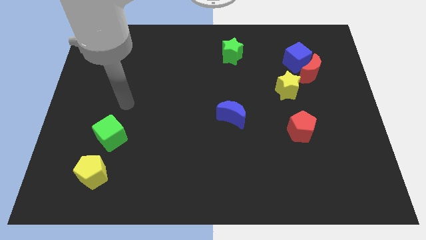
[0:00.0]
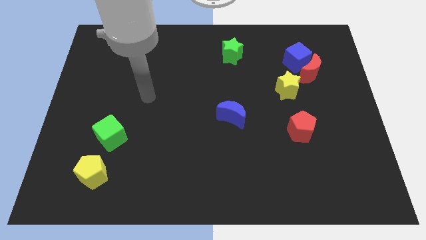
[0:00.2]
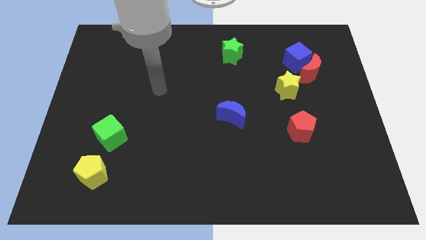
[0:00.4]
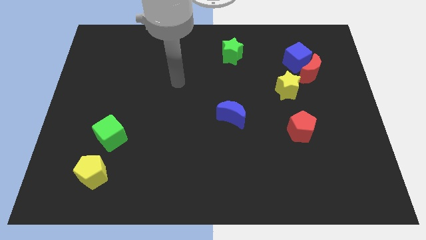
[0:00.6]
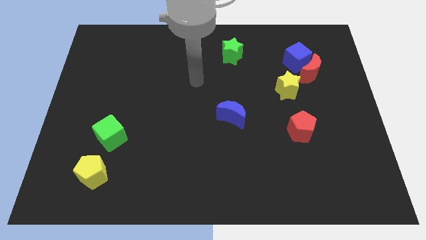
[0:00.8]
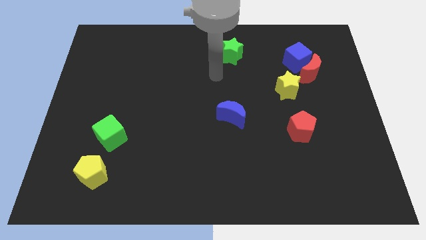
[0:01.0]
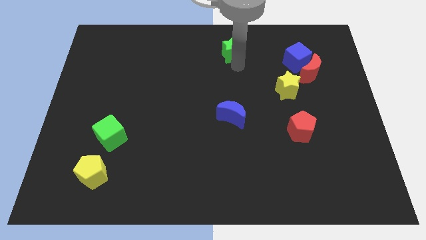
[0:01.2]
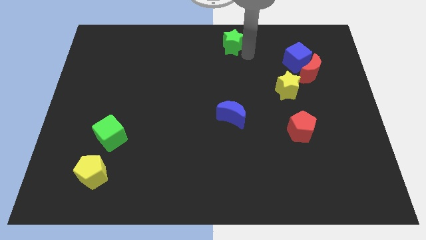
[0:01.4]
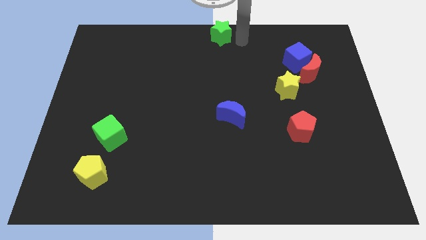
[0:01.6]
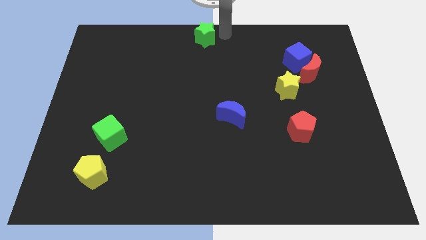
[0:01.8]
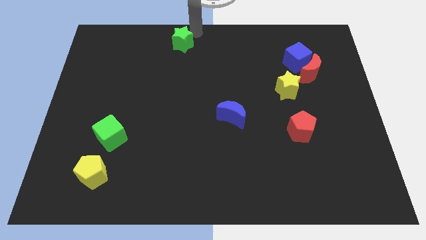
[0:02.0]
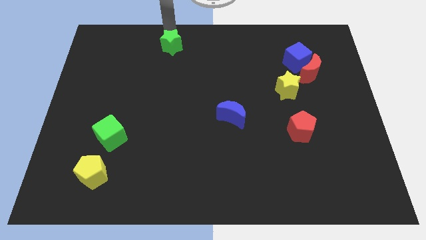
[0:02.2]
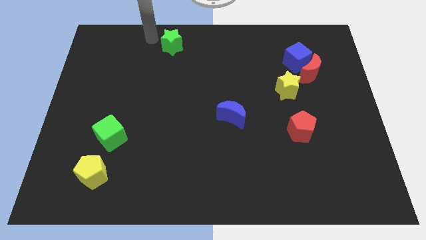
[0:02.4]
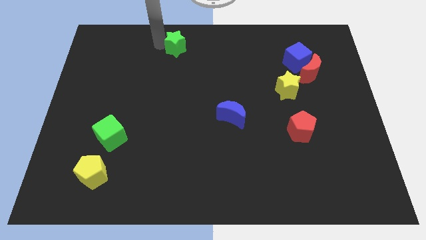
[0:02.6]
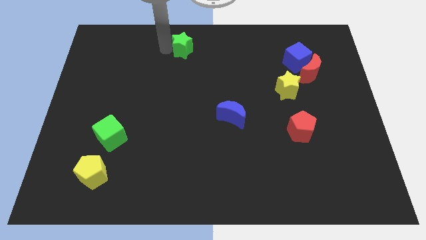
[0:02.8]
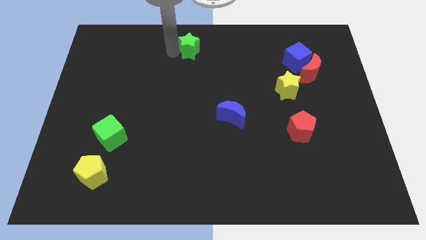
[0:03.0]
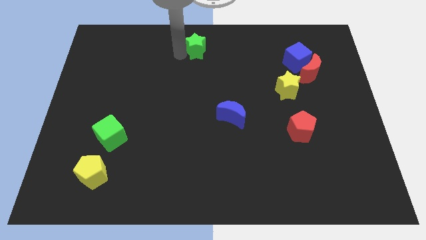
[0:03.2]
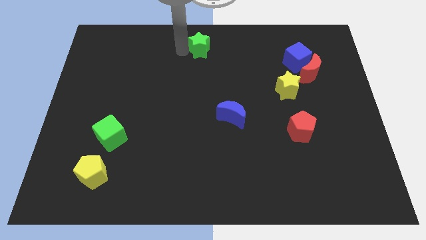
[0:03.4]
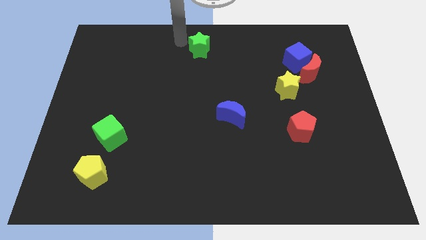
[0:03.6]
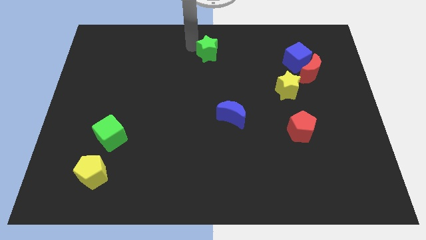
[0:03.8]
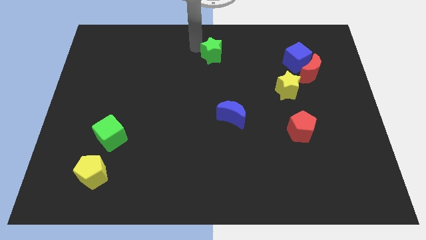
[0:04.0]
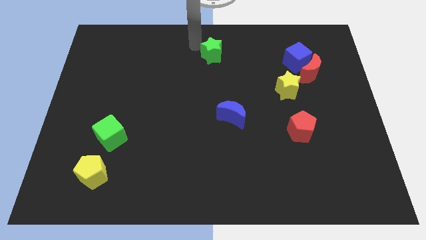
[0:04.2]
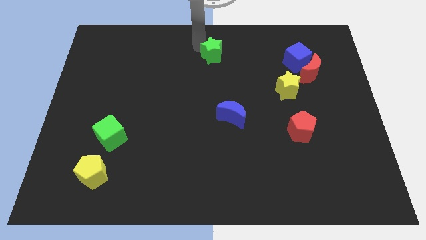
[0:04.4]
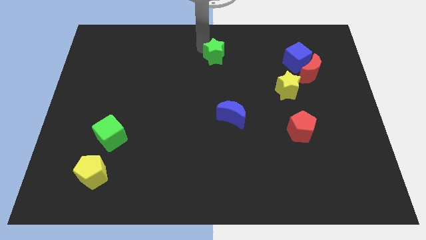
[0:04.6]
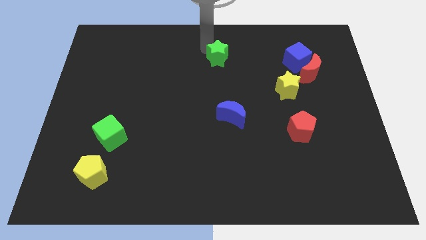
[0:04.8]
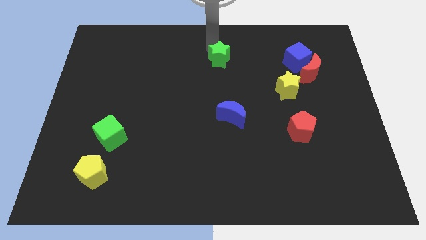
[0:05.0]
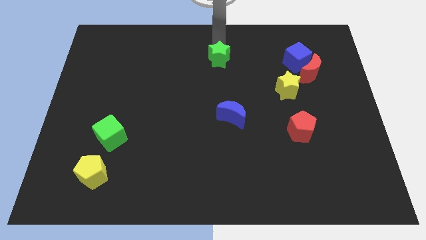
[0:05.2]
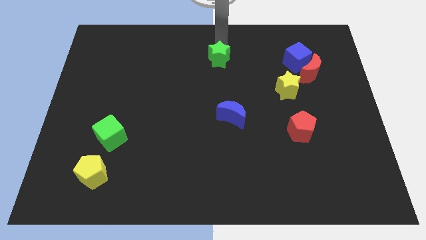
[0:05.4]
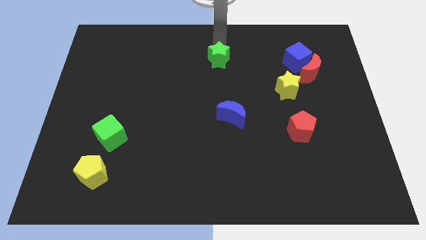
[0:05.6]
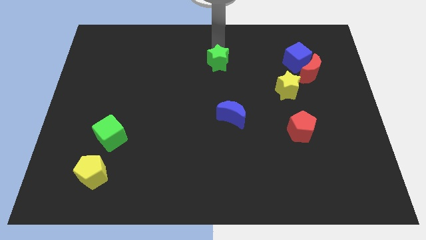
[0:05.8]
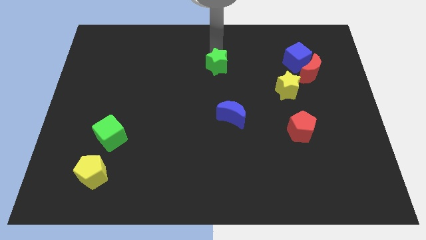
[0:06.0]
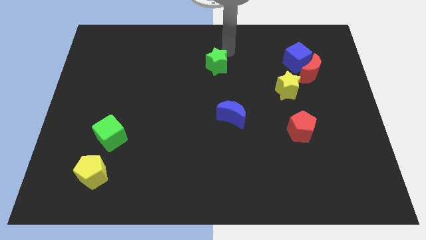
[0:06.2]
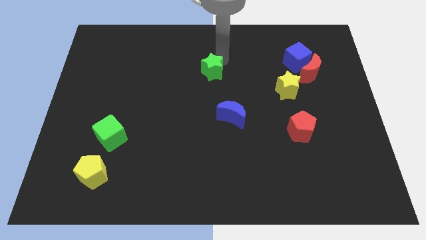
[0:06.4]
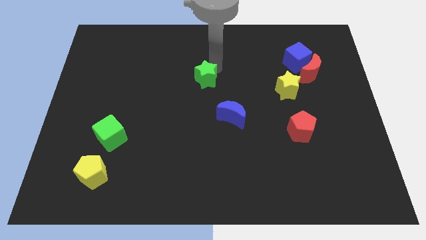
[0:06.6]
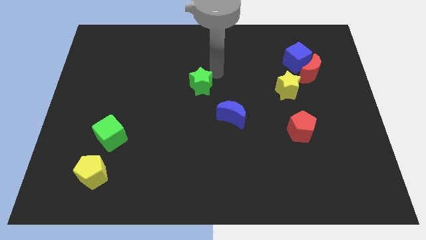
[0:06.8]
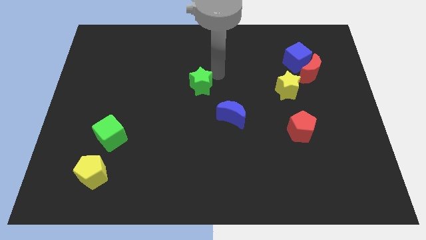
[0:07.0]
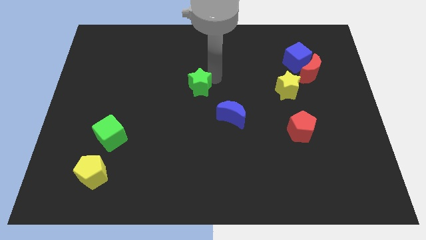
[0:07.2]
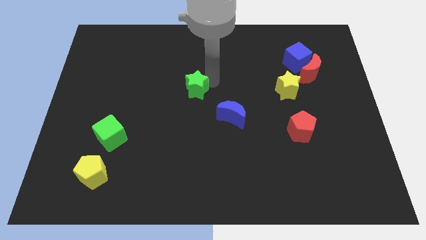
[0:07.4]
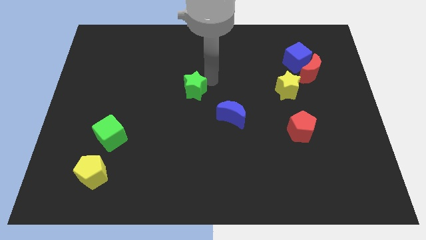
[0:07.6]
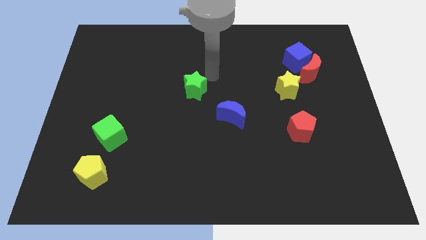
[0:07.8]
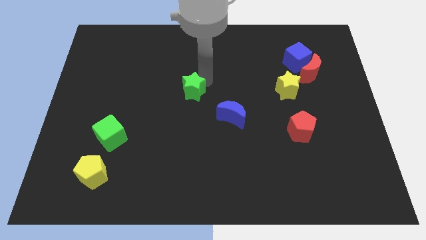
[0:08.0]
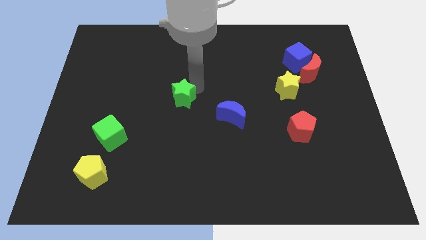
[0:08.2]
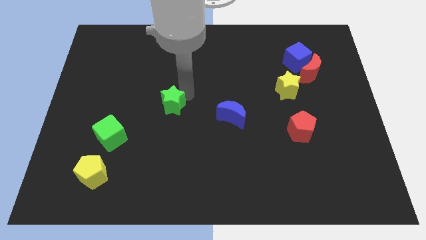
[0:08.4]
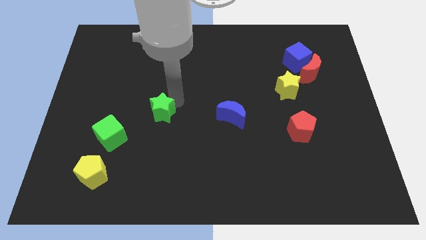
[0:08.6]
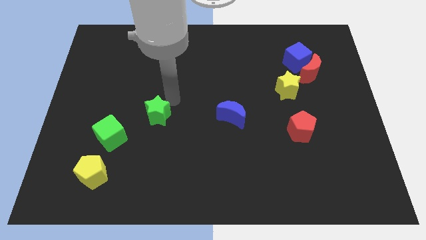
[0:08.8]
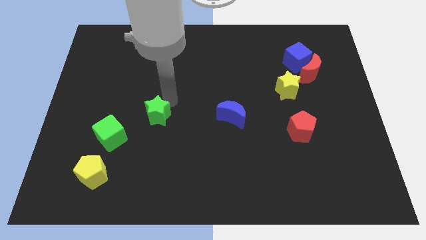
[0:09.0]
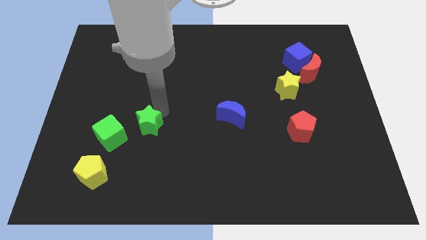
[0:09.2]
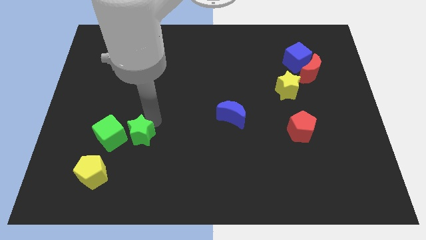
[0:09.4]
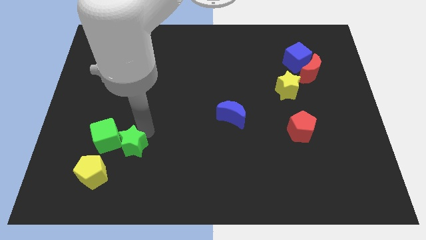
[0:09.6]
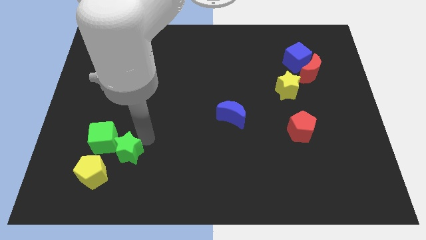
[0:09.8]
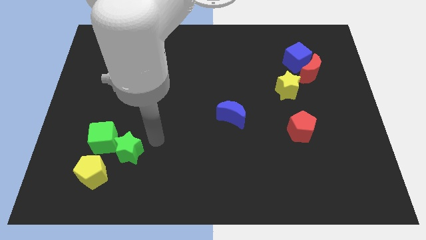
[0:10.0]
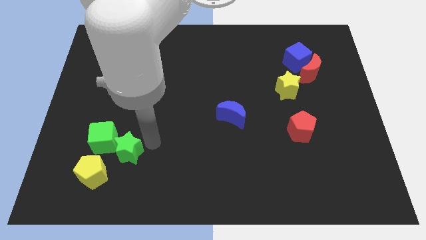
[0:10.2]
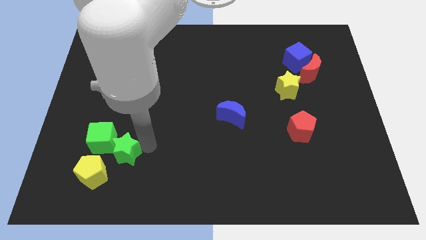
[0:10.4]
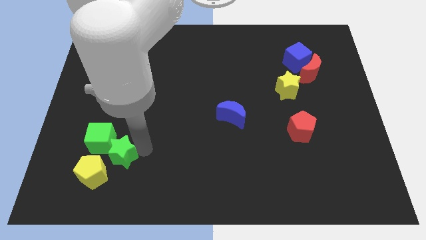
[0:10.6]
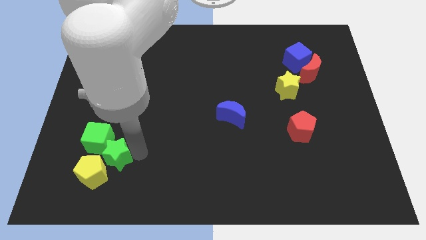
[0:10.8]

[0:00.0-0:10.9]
slide the green star next to the yellow pentagon

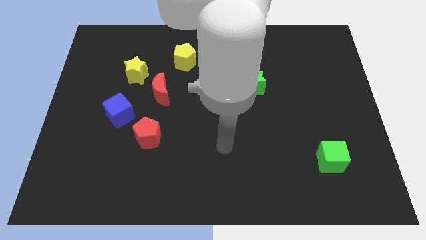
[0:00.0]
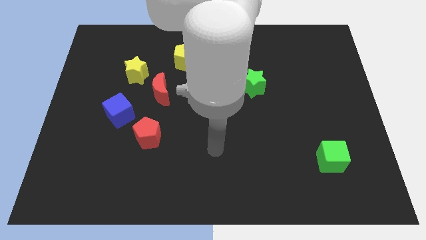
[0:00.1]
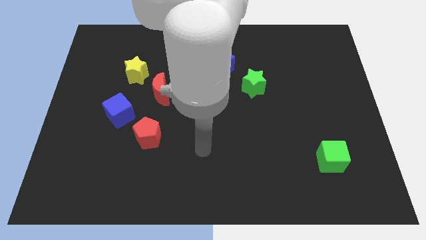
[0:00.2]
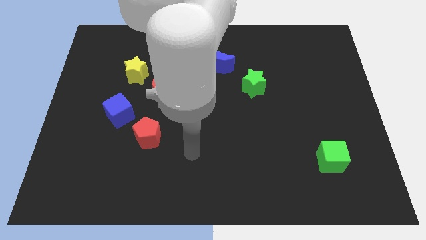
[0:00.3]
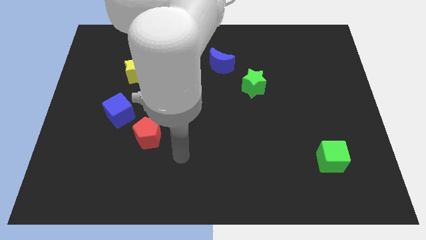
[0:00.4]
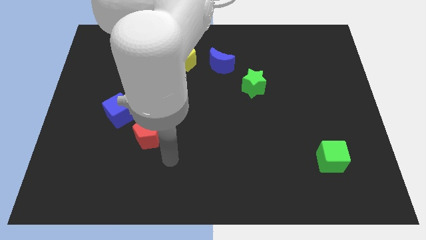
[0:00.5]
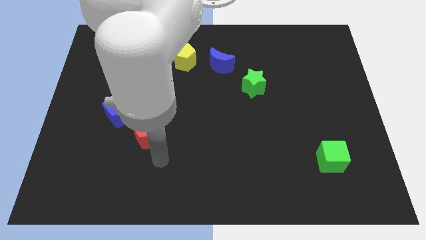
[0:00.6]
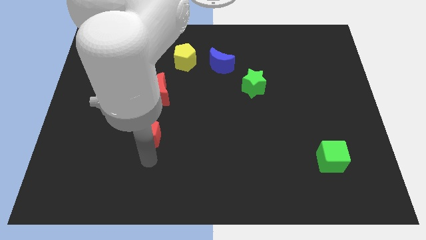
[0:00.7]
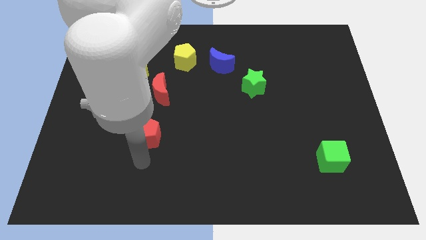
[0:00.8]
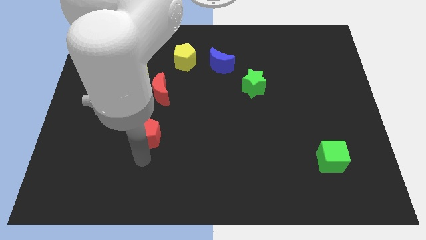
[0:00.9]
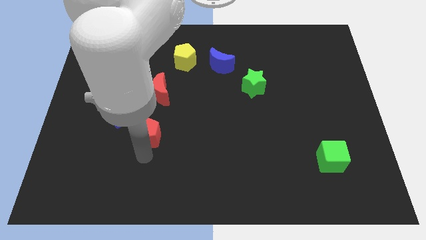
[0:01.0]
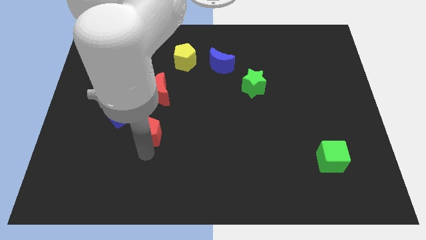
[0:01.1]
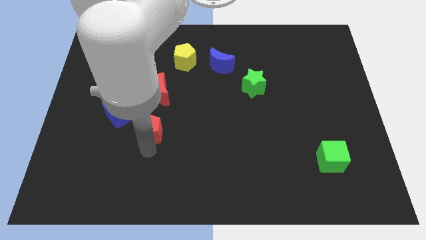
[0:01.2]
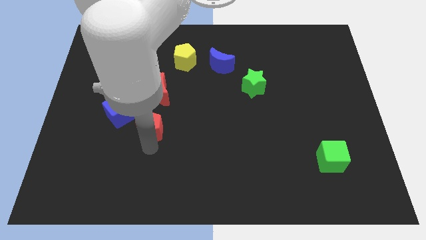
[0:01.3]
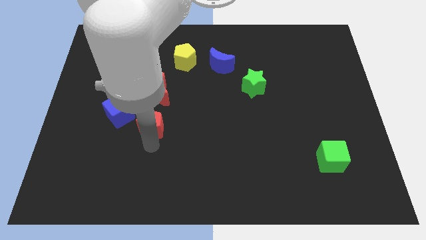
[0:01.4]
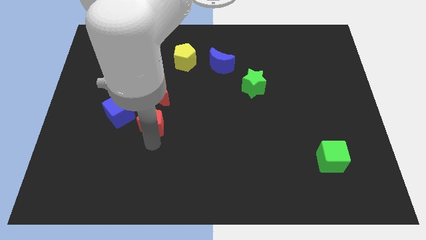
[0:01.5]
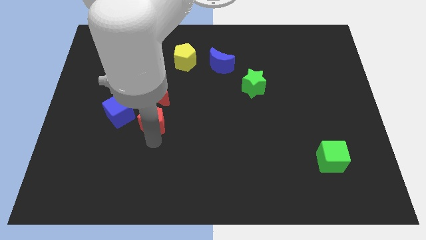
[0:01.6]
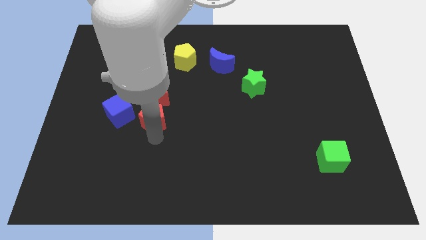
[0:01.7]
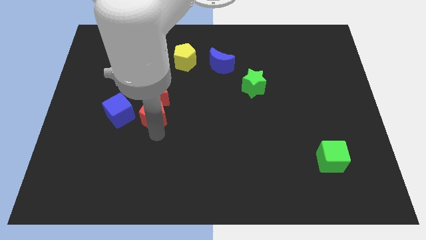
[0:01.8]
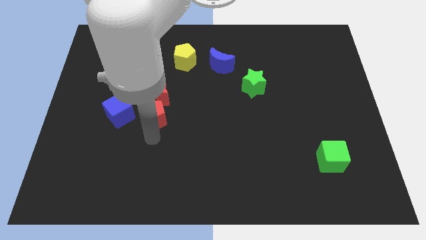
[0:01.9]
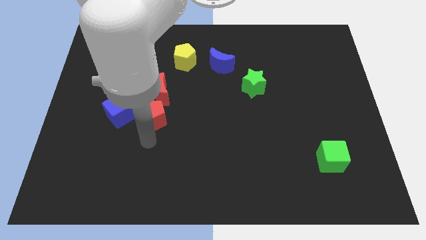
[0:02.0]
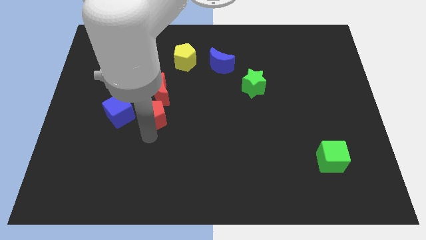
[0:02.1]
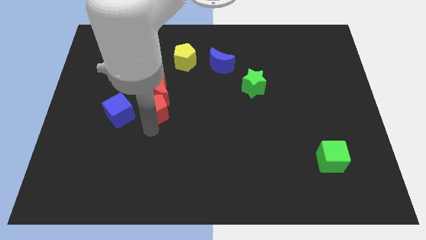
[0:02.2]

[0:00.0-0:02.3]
put the red pentagon close to the red moon
